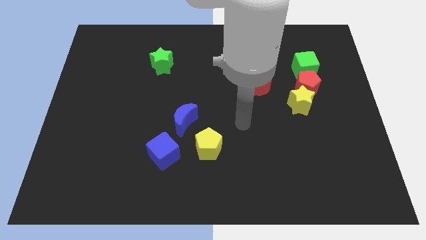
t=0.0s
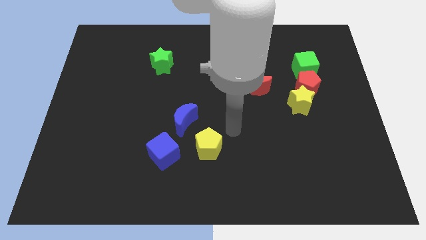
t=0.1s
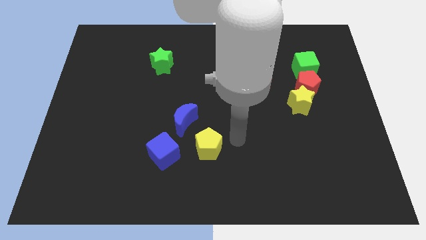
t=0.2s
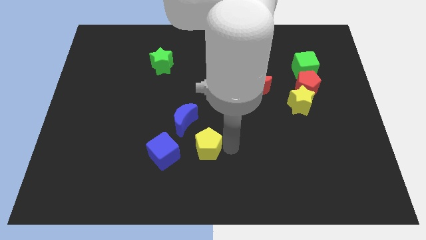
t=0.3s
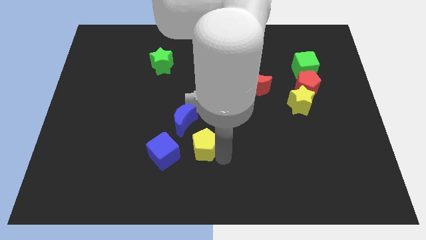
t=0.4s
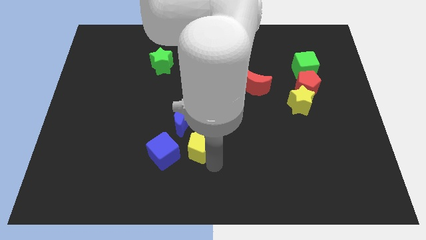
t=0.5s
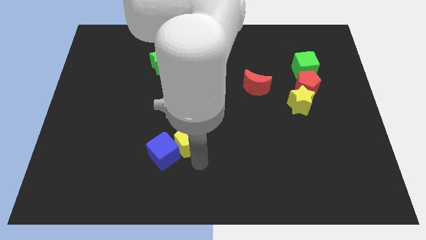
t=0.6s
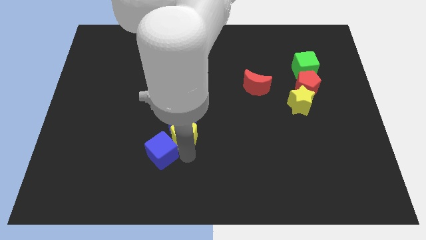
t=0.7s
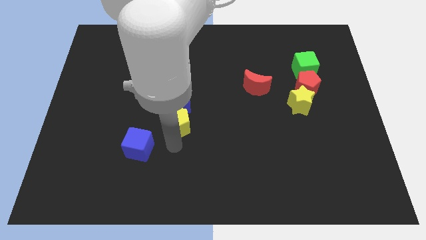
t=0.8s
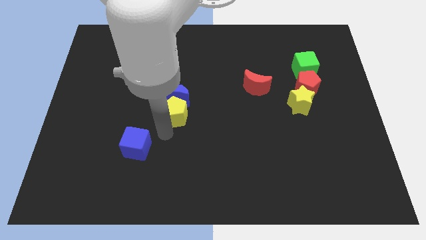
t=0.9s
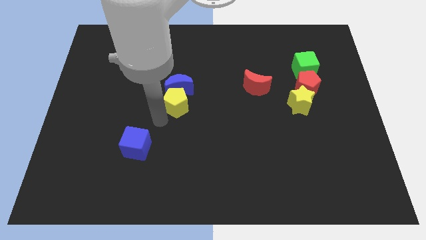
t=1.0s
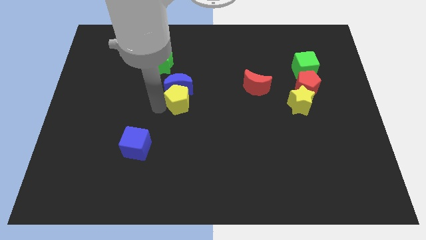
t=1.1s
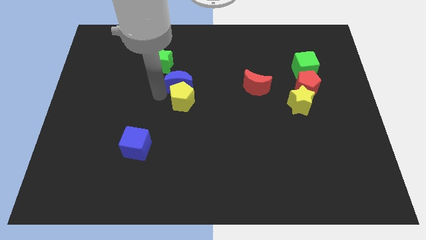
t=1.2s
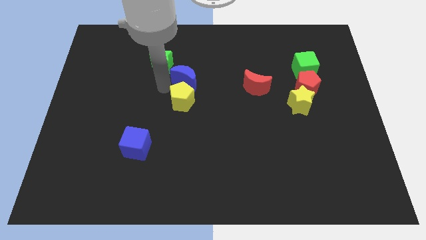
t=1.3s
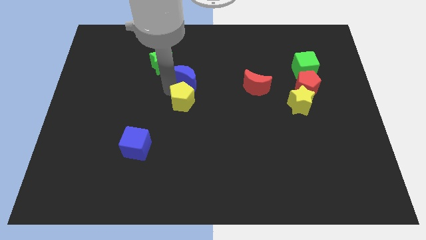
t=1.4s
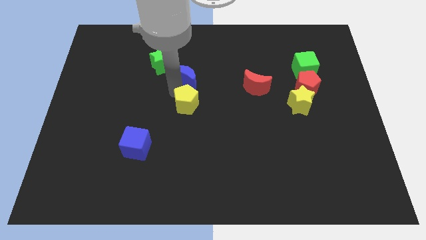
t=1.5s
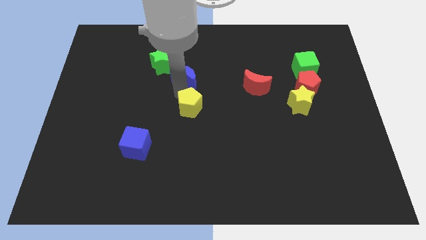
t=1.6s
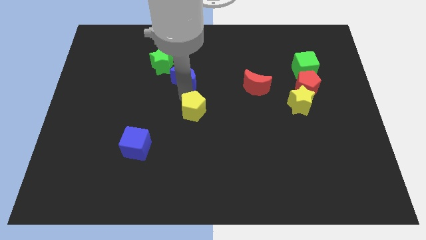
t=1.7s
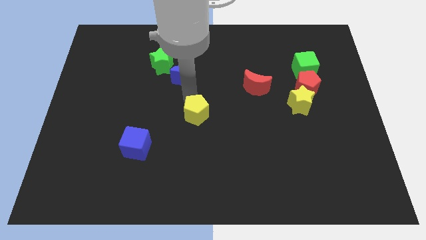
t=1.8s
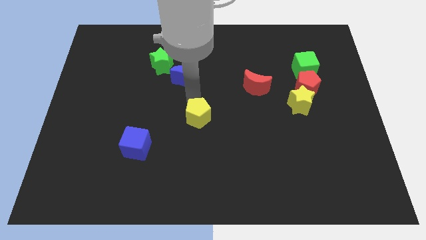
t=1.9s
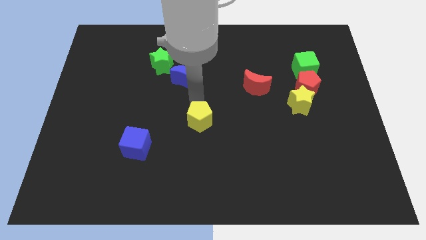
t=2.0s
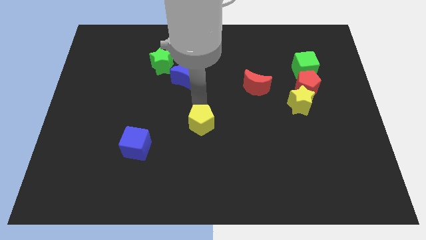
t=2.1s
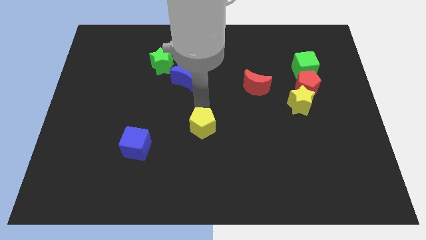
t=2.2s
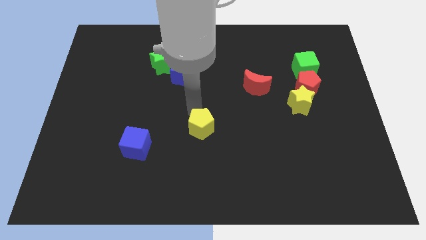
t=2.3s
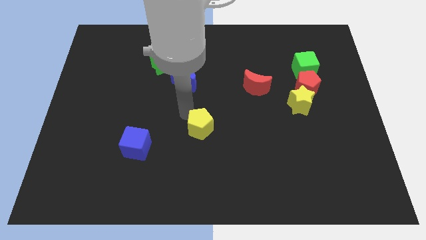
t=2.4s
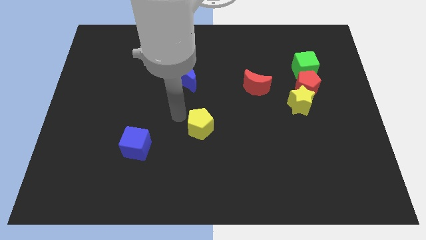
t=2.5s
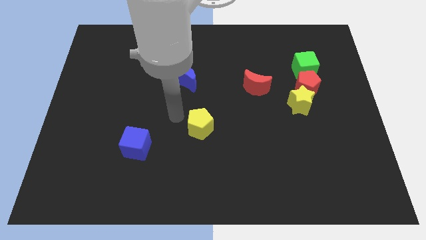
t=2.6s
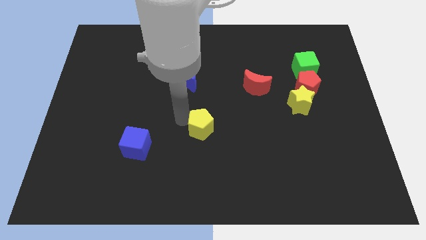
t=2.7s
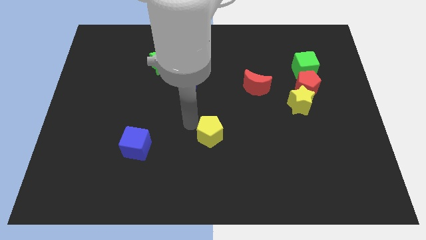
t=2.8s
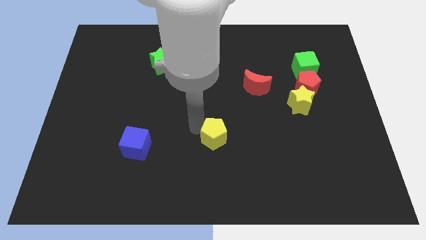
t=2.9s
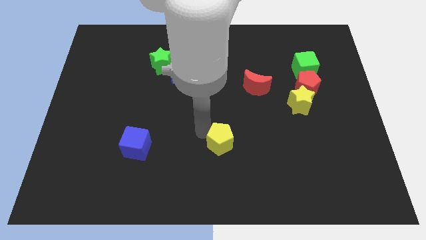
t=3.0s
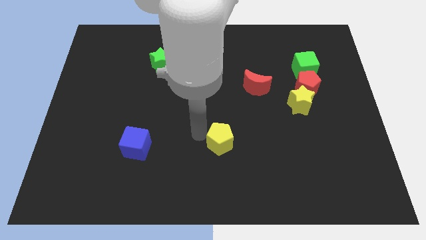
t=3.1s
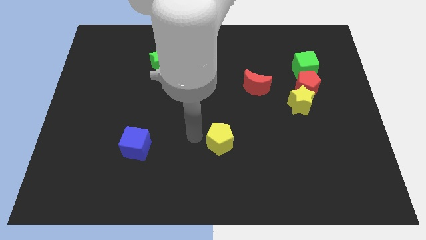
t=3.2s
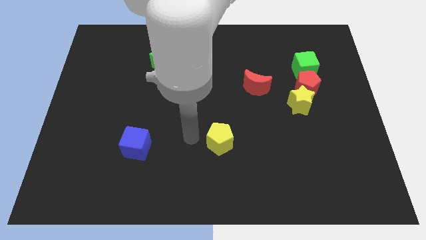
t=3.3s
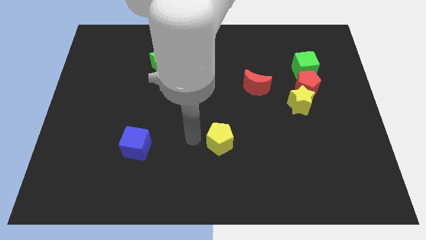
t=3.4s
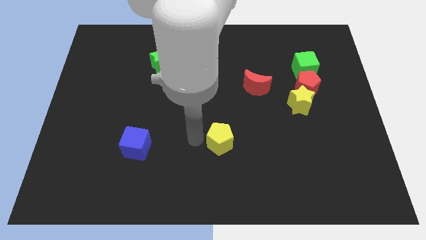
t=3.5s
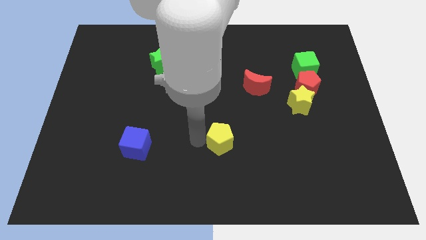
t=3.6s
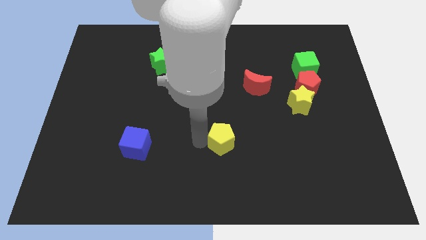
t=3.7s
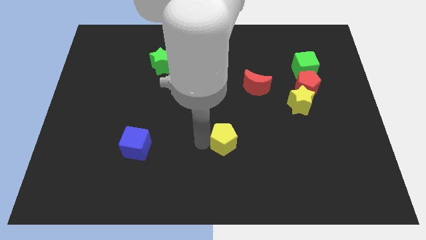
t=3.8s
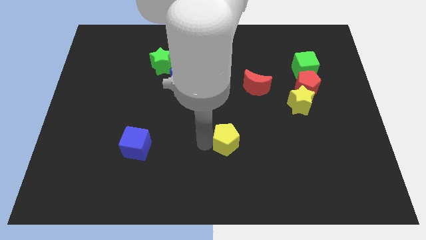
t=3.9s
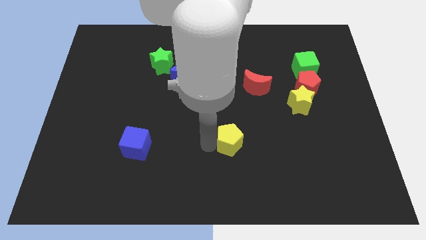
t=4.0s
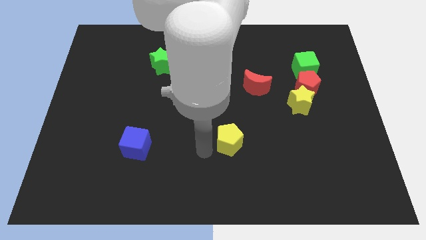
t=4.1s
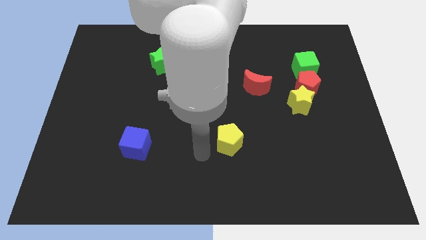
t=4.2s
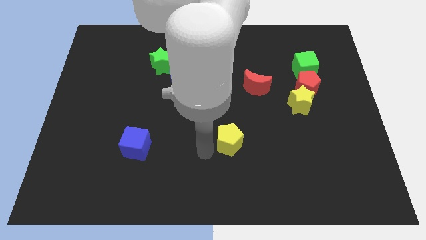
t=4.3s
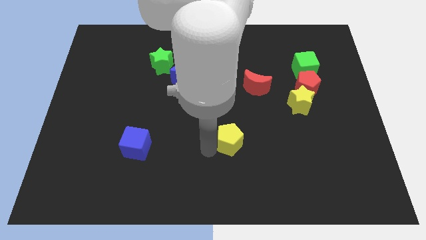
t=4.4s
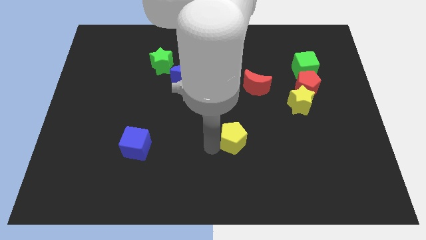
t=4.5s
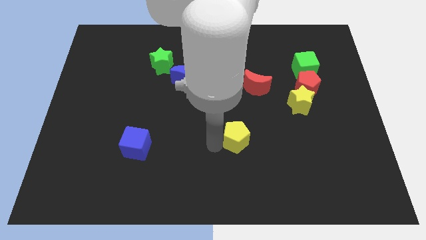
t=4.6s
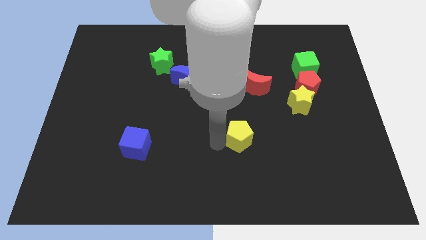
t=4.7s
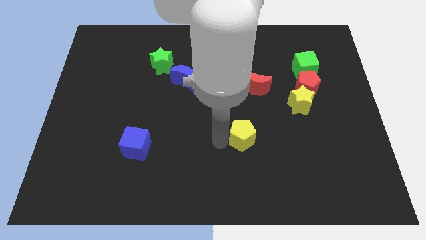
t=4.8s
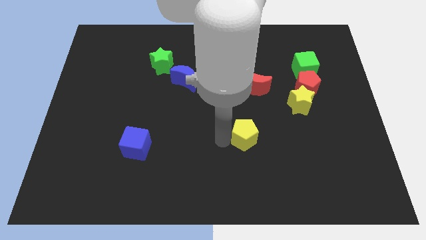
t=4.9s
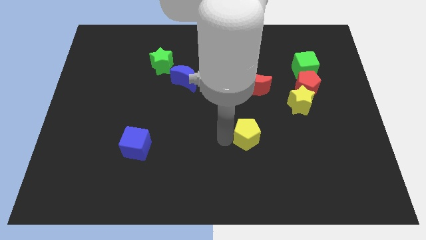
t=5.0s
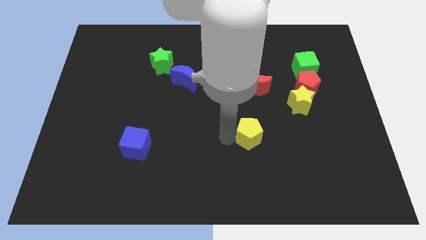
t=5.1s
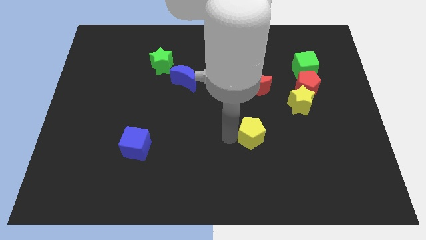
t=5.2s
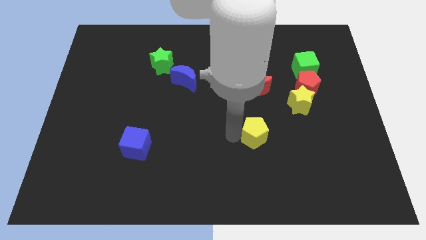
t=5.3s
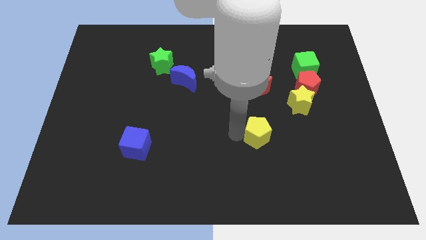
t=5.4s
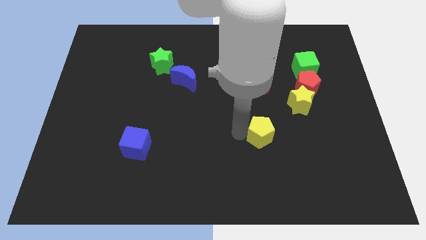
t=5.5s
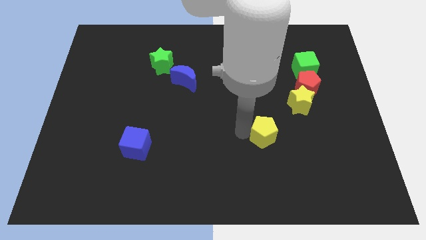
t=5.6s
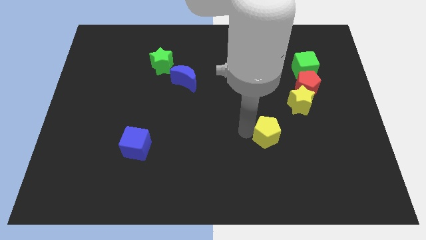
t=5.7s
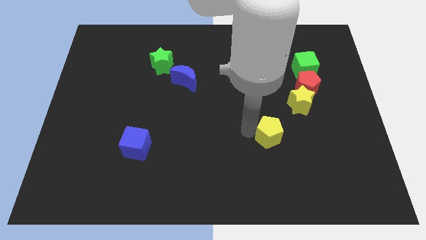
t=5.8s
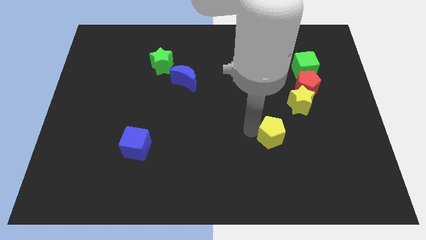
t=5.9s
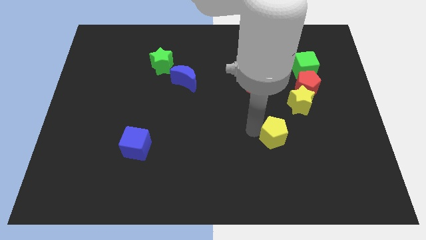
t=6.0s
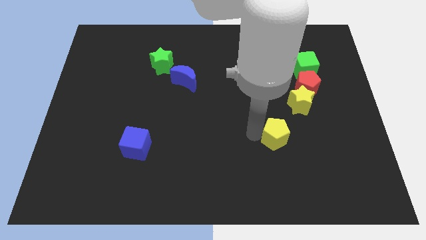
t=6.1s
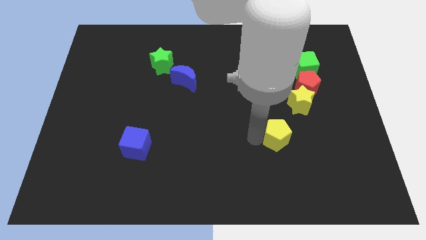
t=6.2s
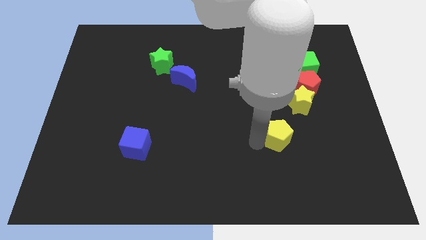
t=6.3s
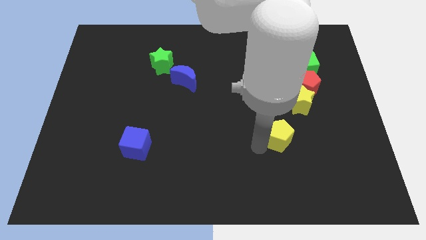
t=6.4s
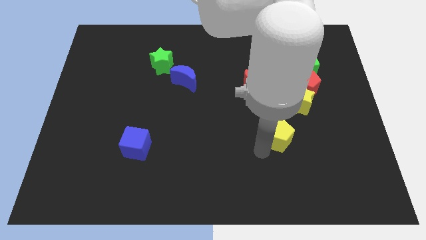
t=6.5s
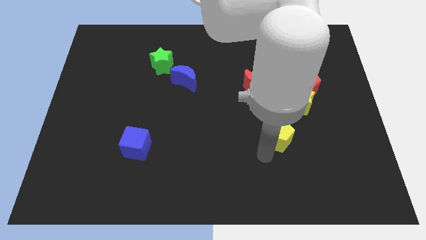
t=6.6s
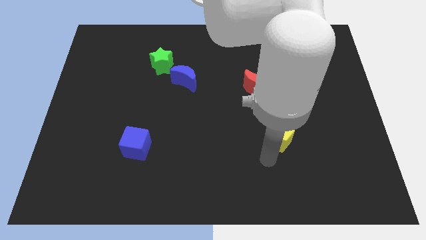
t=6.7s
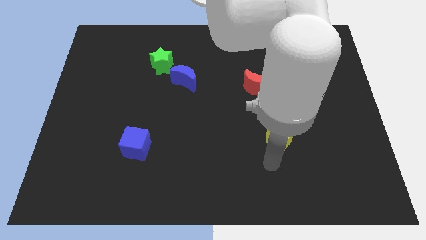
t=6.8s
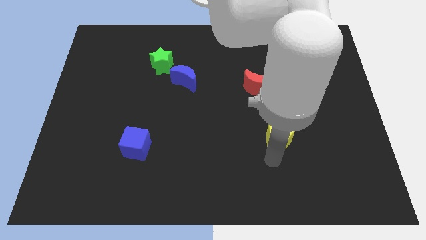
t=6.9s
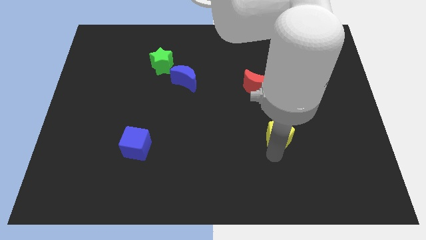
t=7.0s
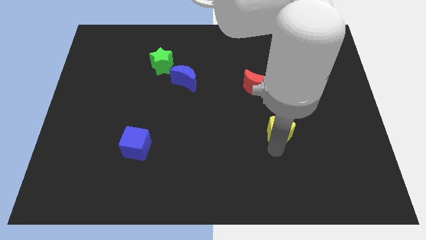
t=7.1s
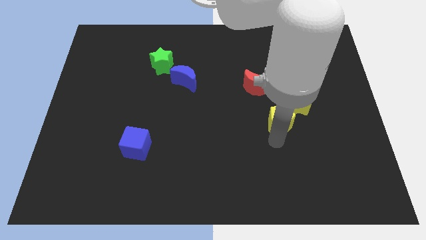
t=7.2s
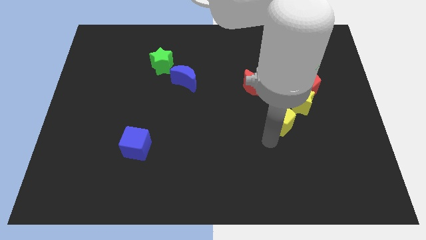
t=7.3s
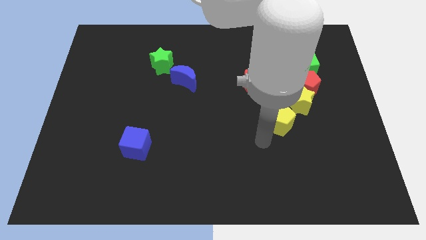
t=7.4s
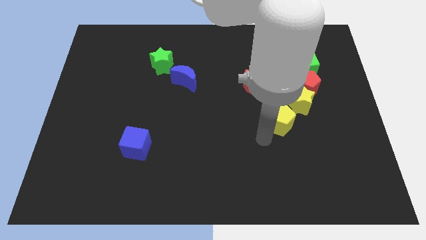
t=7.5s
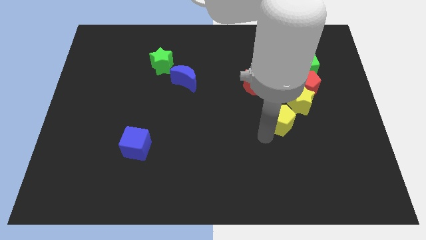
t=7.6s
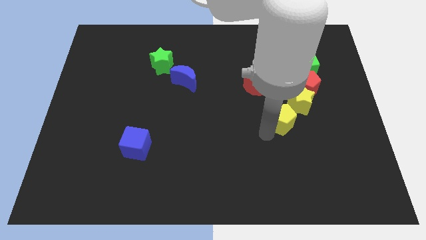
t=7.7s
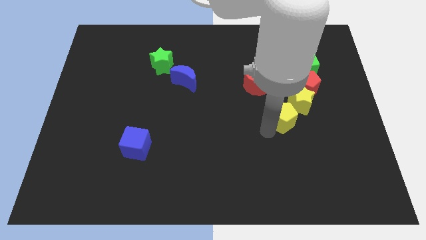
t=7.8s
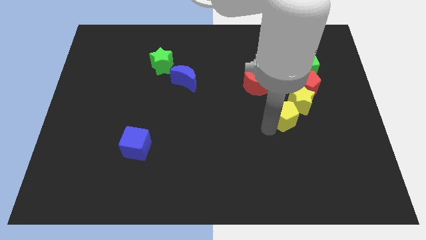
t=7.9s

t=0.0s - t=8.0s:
slide the yellow pentagon towards the yellow star

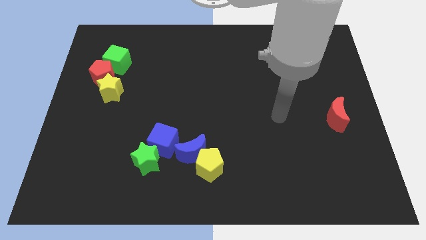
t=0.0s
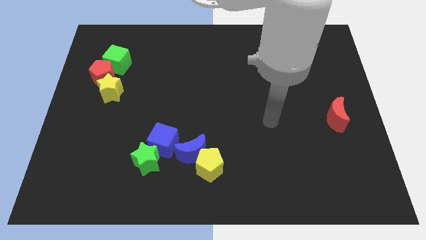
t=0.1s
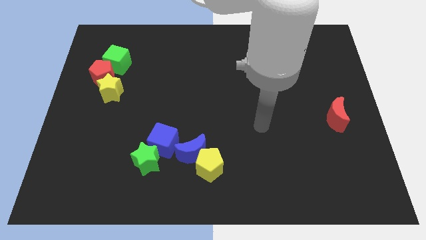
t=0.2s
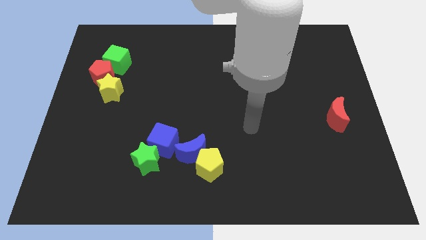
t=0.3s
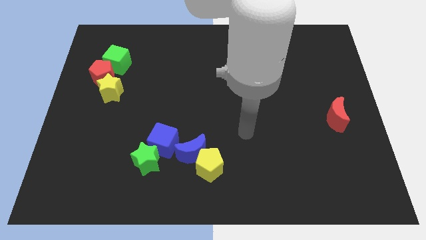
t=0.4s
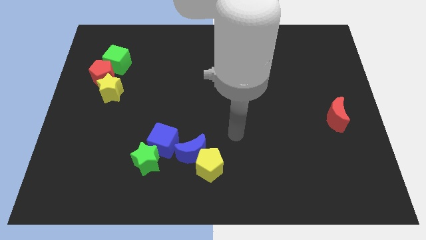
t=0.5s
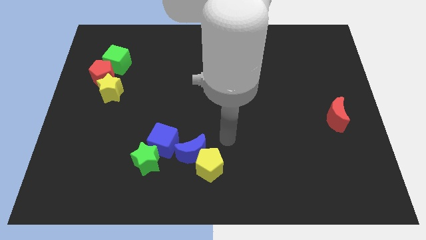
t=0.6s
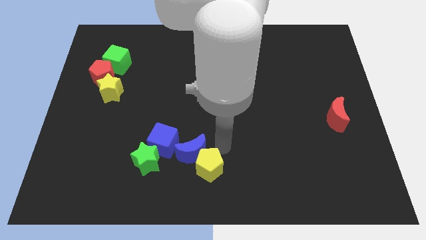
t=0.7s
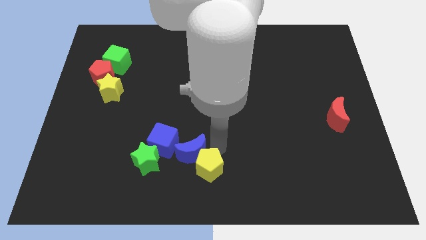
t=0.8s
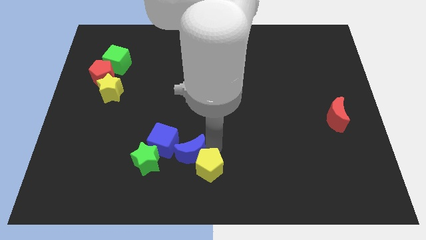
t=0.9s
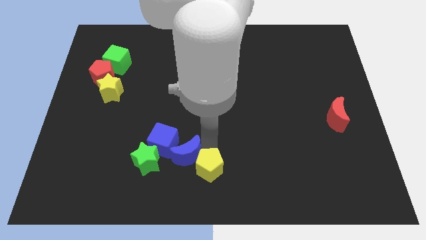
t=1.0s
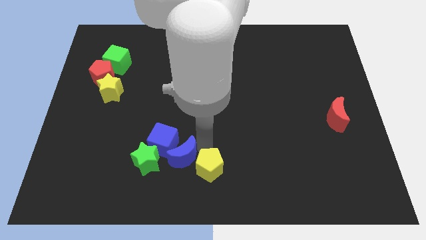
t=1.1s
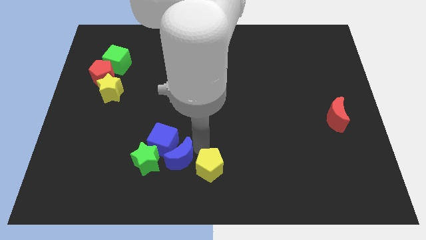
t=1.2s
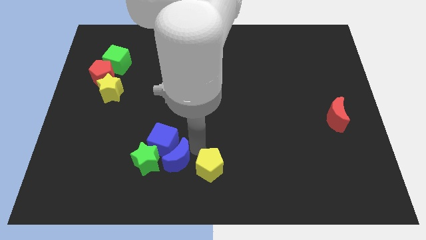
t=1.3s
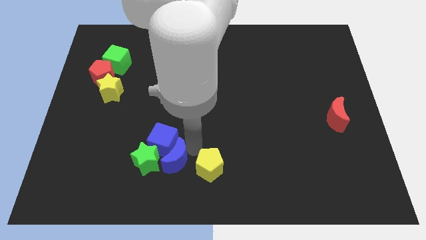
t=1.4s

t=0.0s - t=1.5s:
push the blue moon towards the green star
